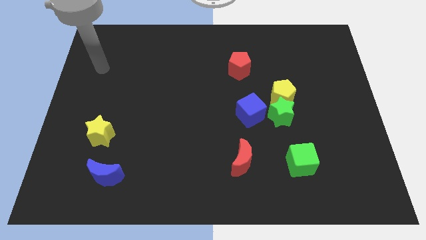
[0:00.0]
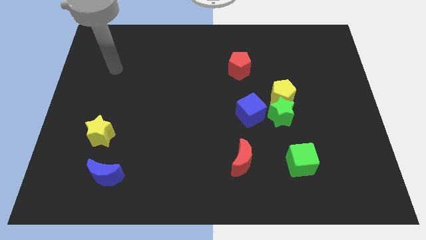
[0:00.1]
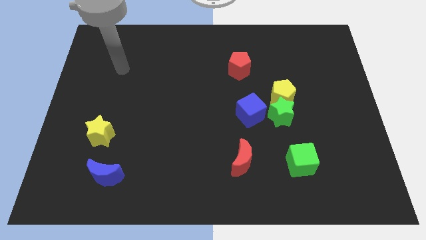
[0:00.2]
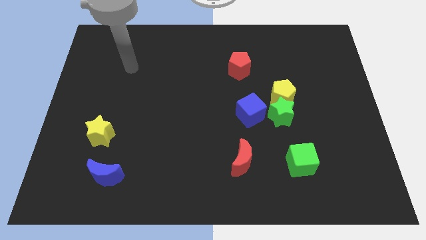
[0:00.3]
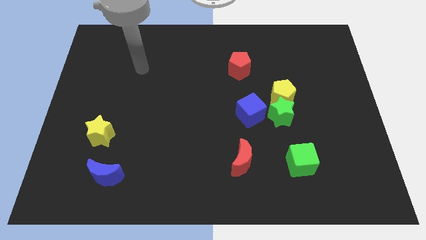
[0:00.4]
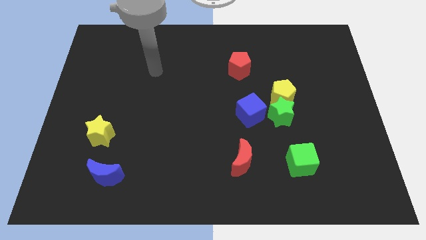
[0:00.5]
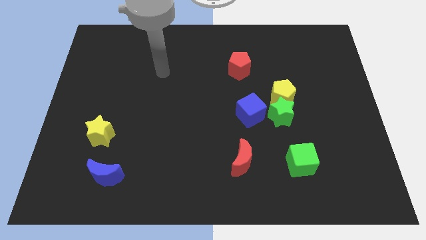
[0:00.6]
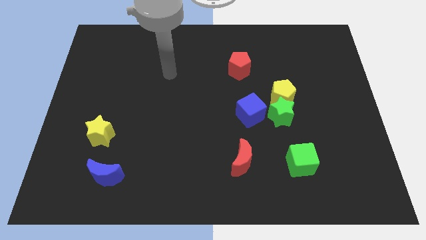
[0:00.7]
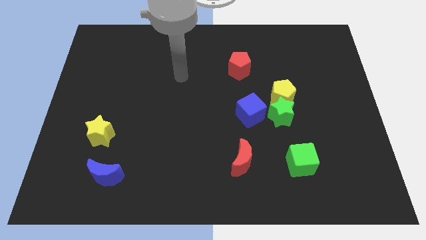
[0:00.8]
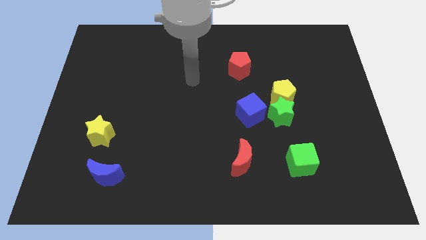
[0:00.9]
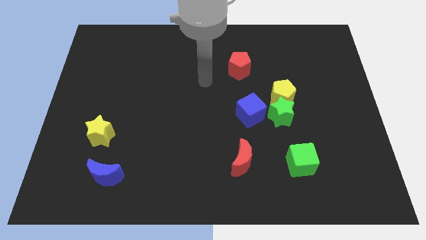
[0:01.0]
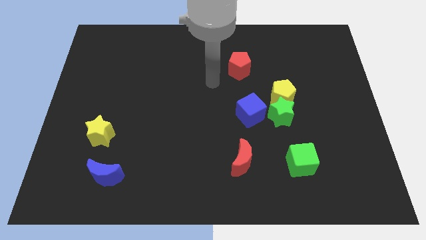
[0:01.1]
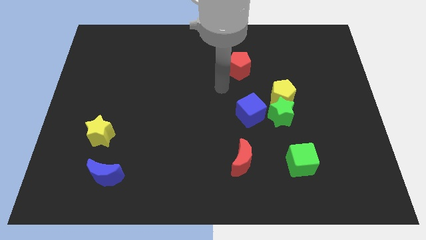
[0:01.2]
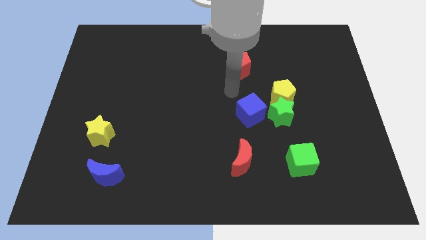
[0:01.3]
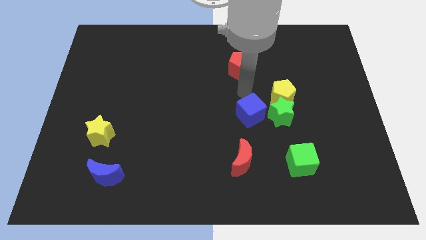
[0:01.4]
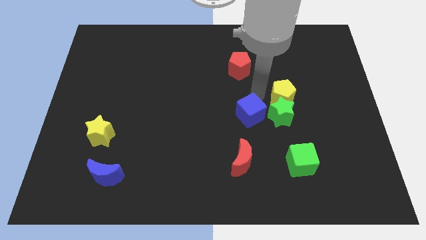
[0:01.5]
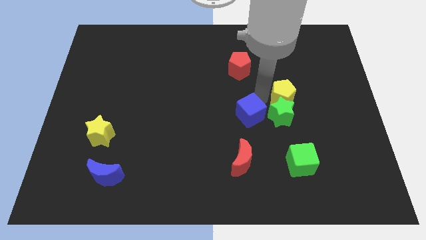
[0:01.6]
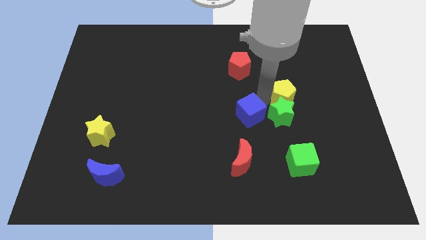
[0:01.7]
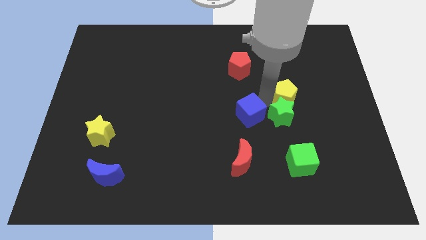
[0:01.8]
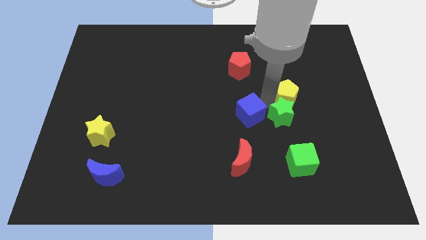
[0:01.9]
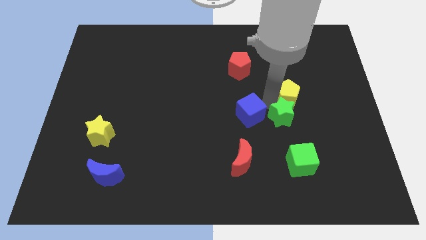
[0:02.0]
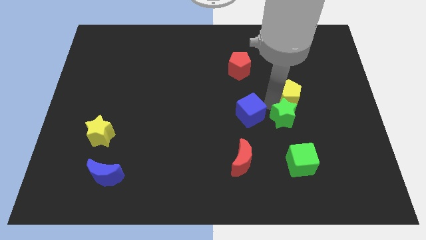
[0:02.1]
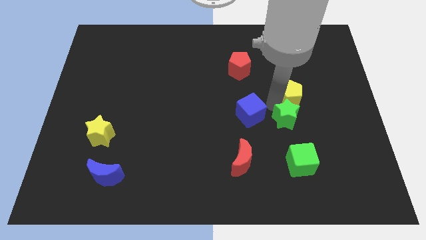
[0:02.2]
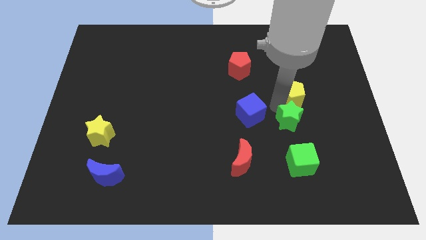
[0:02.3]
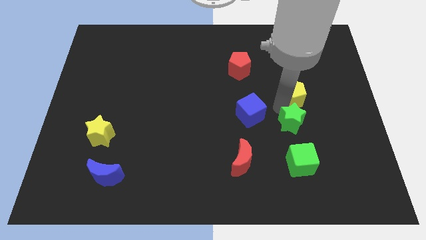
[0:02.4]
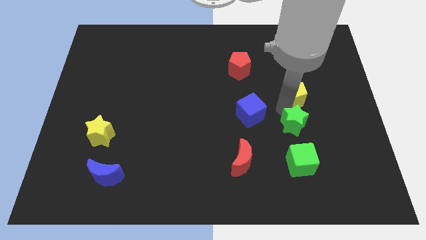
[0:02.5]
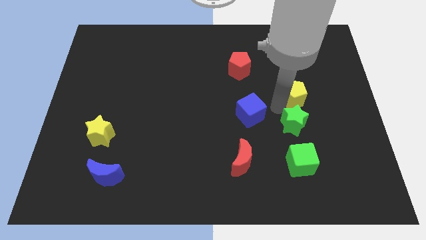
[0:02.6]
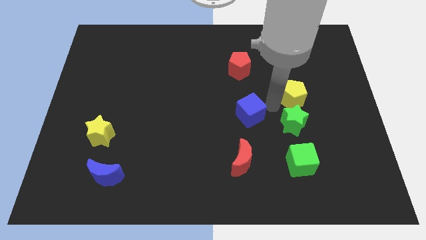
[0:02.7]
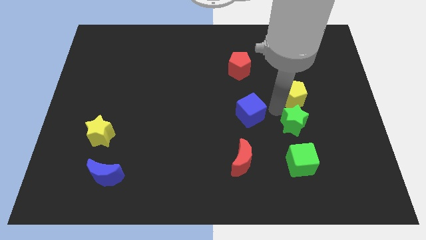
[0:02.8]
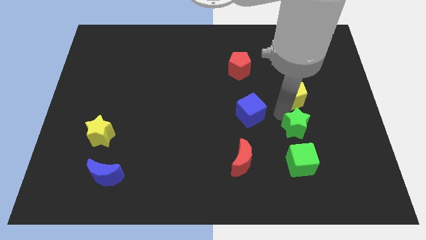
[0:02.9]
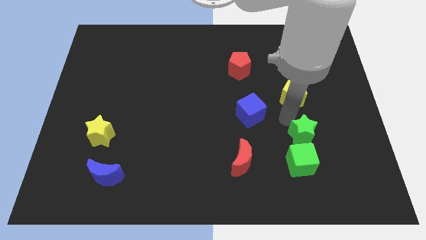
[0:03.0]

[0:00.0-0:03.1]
separate the green star from the yellow pentagon and blue cube

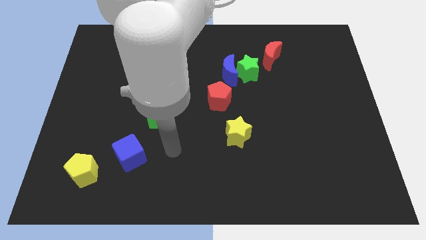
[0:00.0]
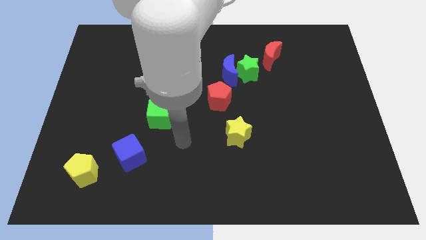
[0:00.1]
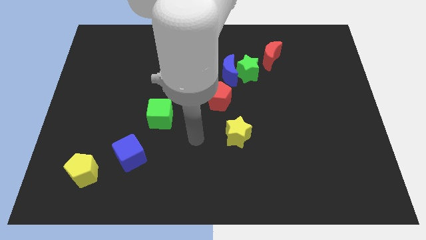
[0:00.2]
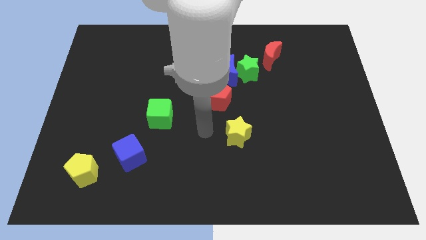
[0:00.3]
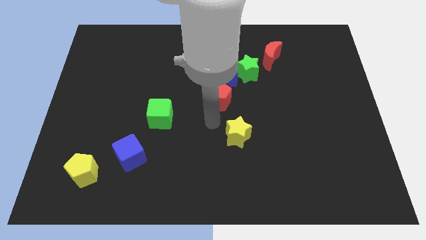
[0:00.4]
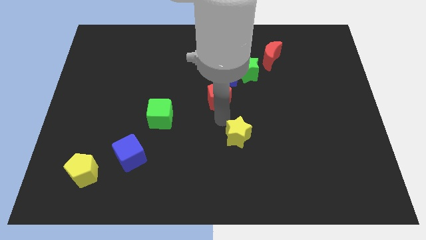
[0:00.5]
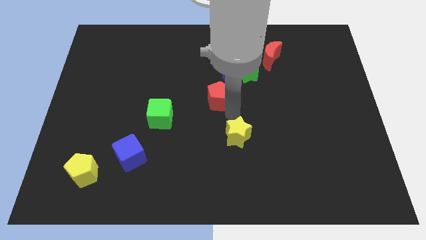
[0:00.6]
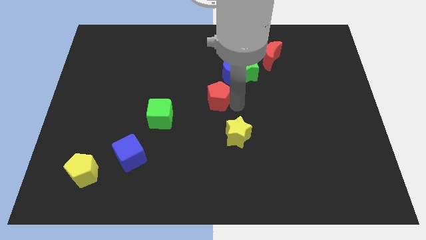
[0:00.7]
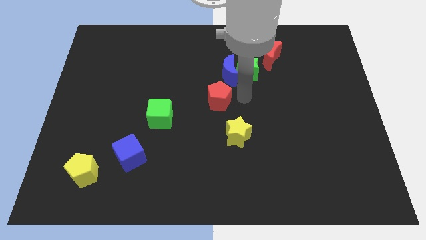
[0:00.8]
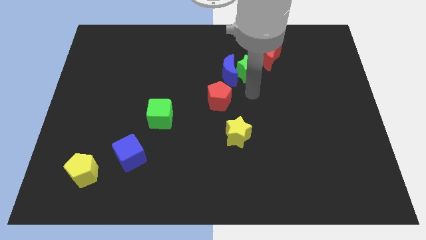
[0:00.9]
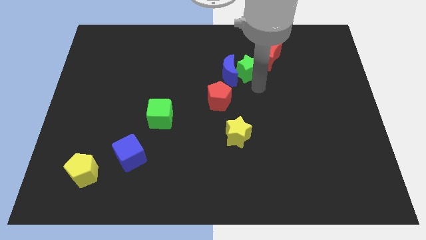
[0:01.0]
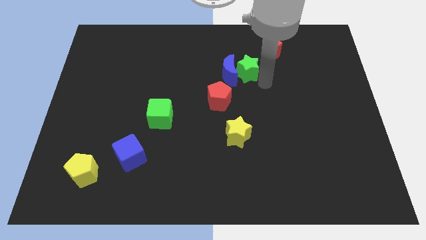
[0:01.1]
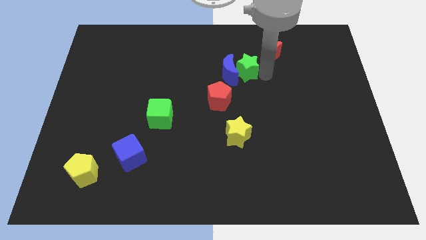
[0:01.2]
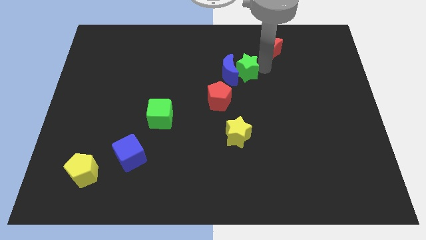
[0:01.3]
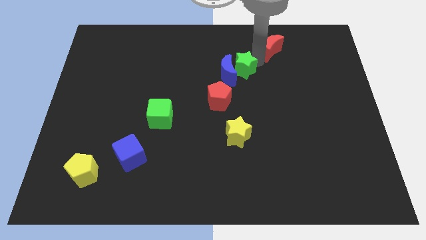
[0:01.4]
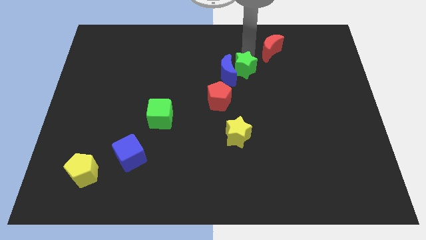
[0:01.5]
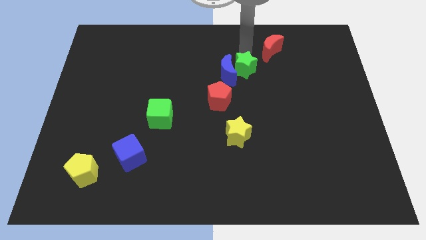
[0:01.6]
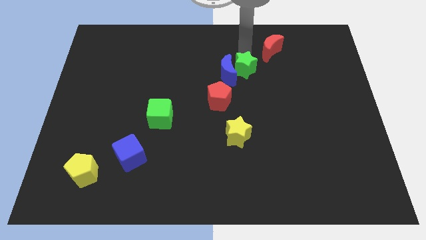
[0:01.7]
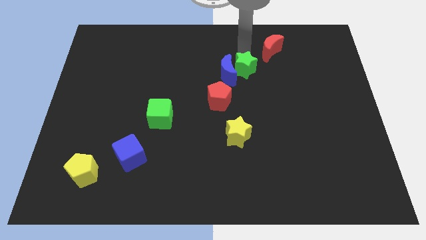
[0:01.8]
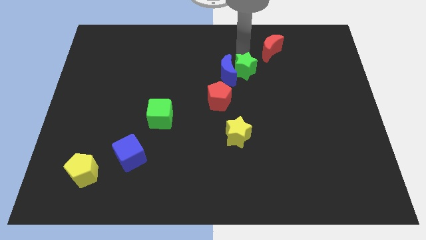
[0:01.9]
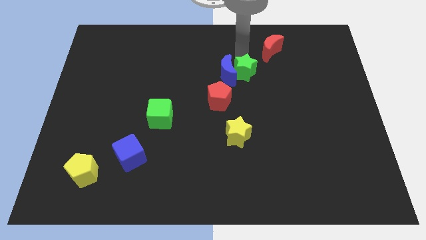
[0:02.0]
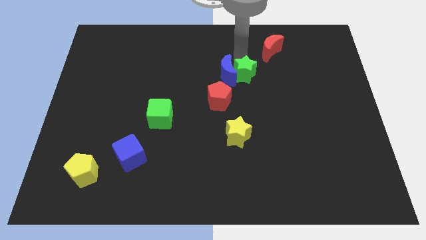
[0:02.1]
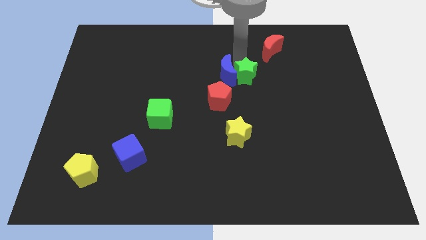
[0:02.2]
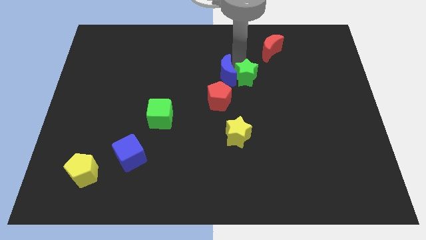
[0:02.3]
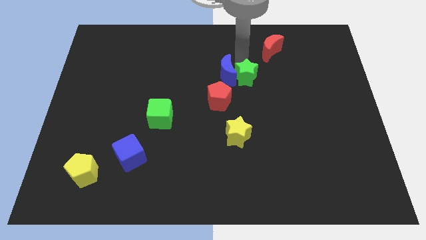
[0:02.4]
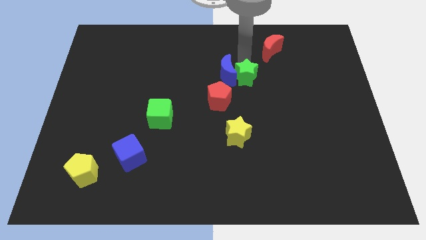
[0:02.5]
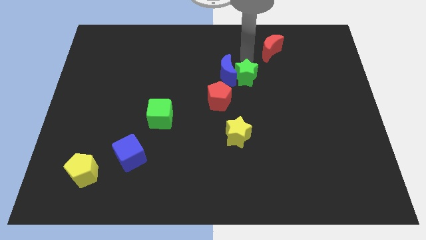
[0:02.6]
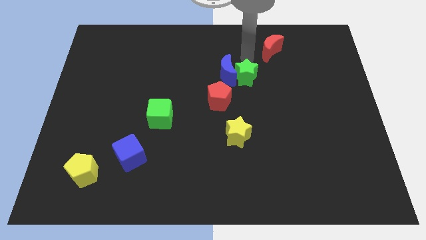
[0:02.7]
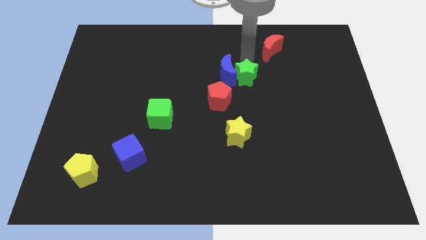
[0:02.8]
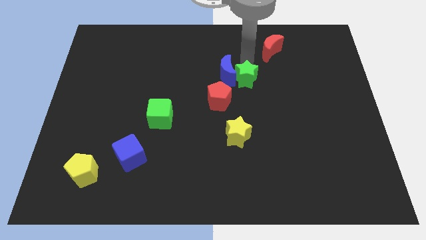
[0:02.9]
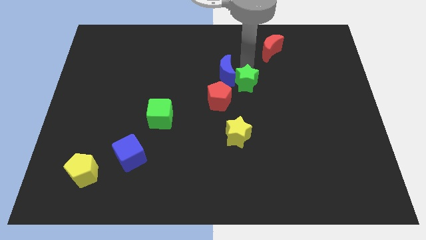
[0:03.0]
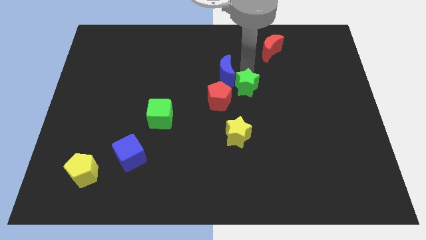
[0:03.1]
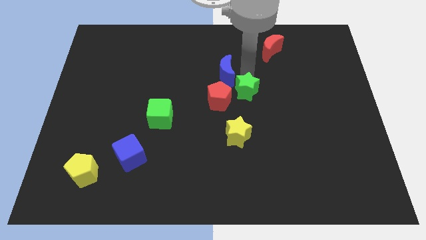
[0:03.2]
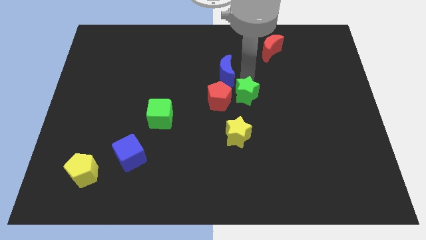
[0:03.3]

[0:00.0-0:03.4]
move the green star away from the blue moon and red moon

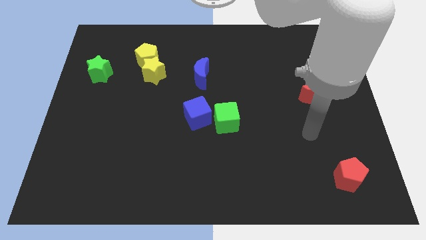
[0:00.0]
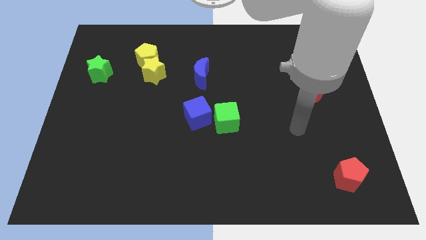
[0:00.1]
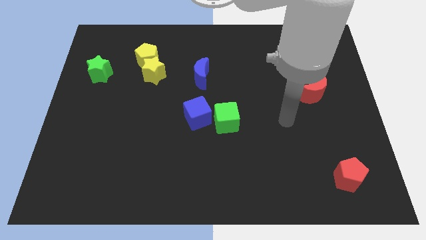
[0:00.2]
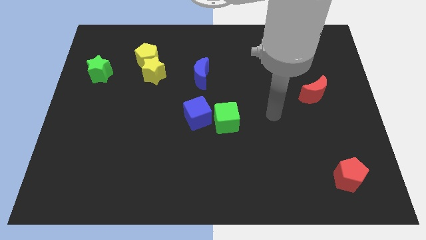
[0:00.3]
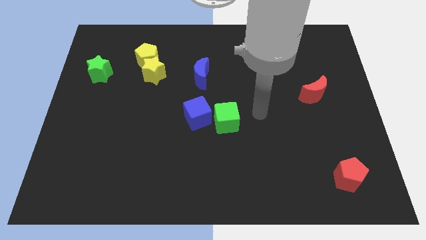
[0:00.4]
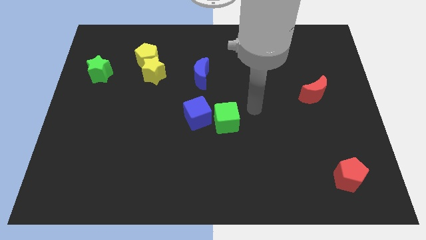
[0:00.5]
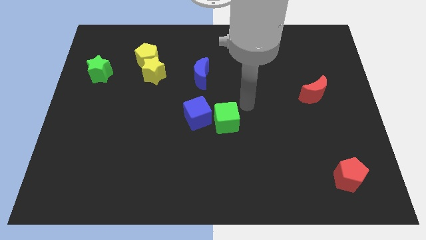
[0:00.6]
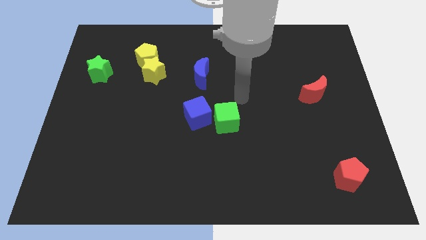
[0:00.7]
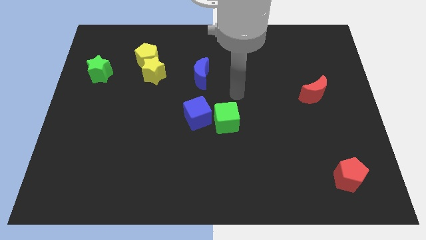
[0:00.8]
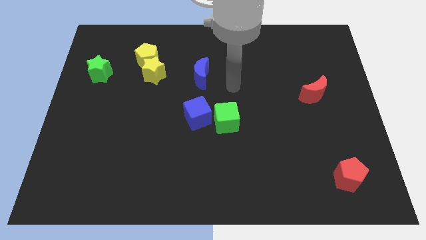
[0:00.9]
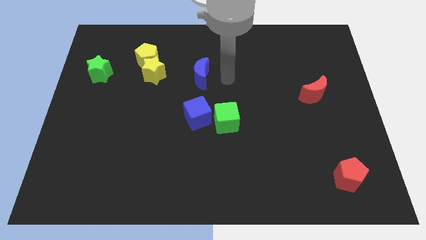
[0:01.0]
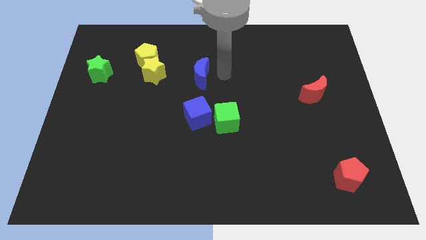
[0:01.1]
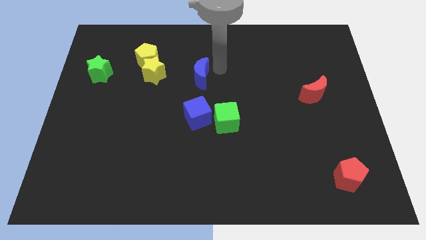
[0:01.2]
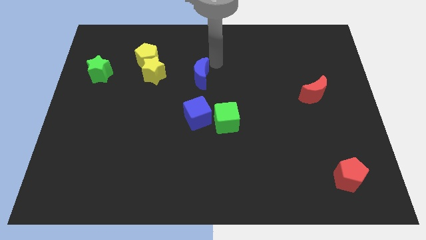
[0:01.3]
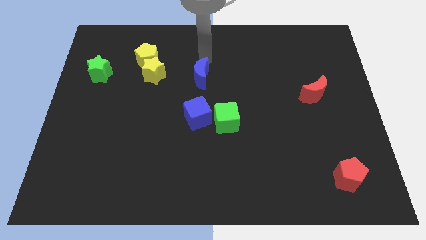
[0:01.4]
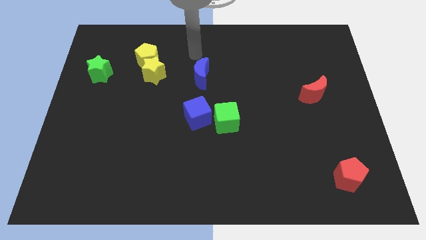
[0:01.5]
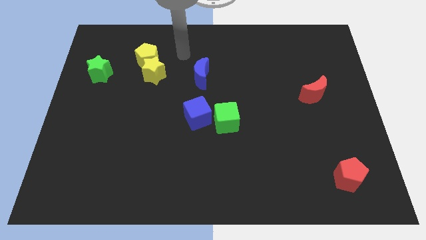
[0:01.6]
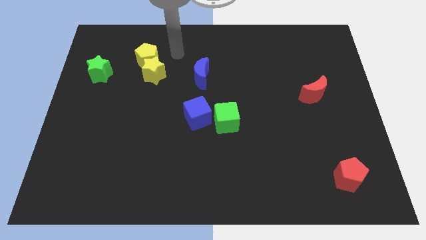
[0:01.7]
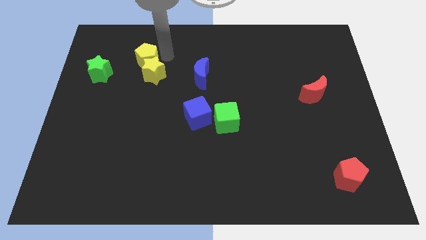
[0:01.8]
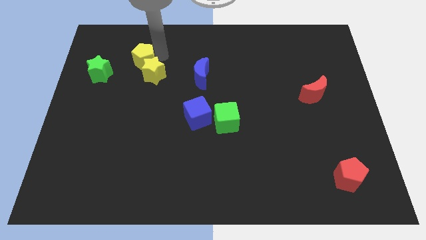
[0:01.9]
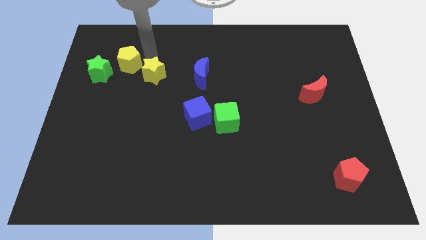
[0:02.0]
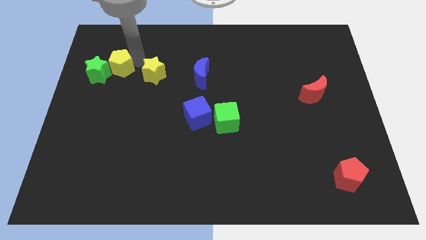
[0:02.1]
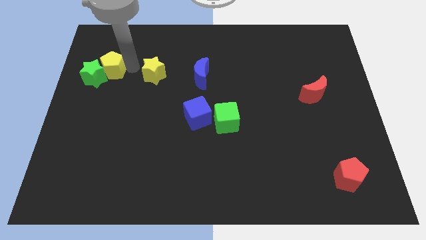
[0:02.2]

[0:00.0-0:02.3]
move the yellow star away from the yellow pentagon

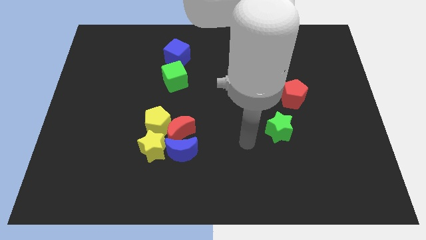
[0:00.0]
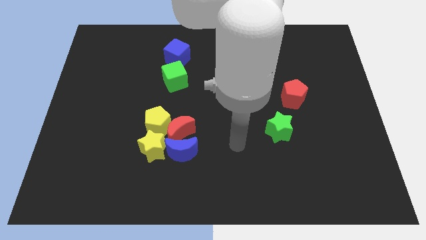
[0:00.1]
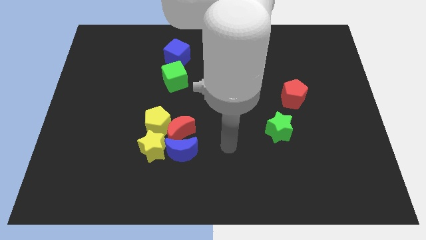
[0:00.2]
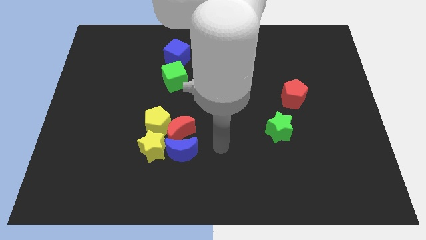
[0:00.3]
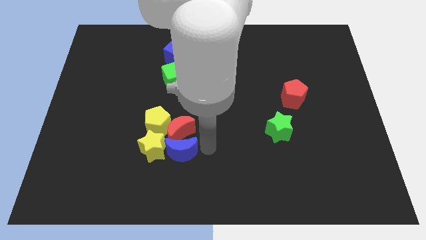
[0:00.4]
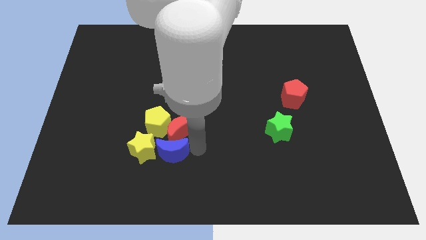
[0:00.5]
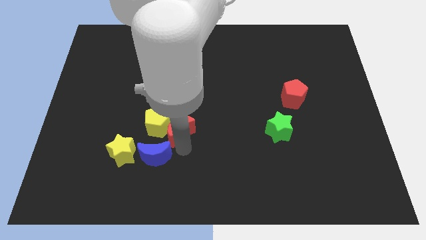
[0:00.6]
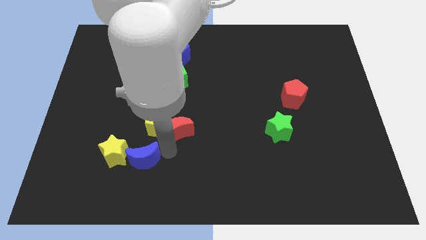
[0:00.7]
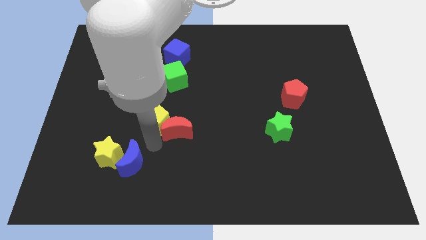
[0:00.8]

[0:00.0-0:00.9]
pull the red moon apart from the group of blocks
